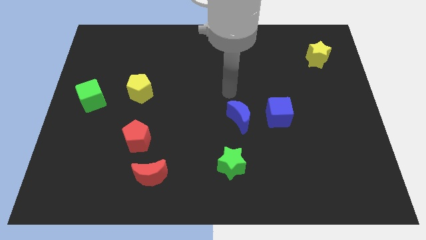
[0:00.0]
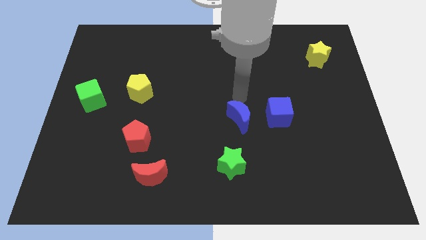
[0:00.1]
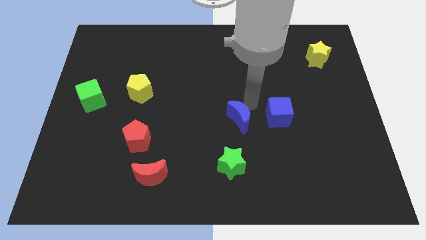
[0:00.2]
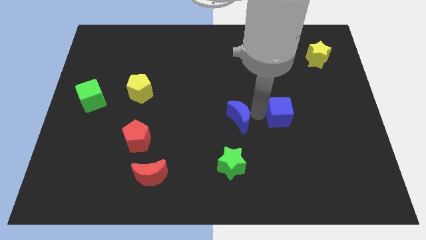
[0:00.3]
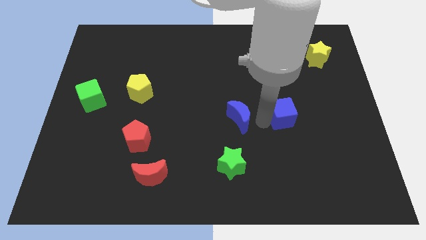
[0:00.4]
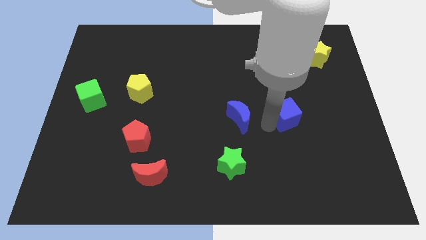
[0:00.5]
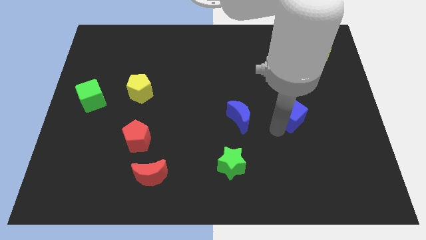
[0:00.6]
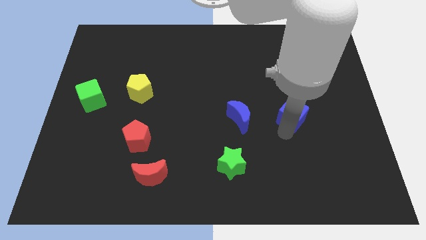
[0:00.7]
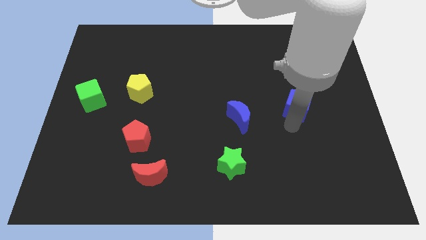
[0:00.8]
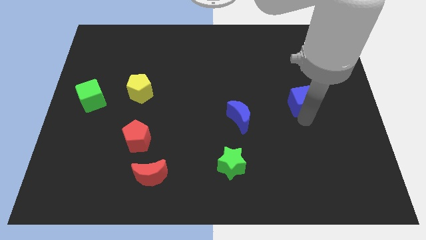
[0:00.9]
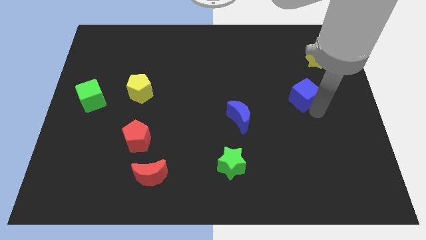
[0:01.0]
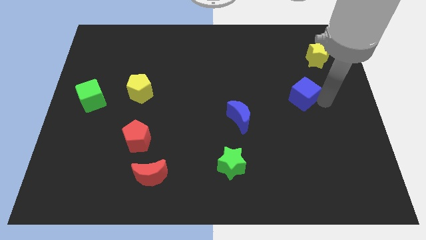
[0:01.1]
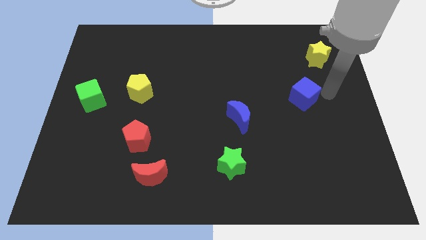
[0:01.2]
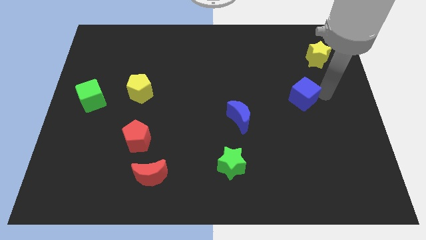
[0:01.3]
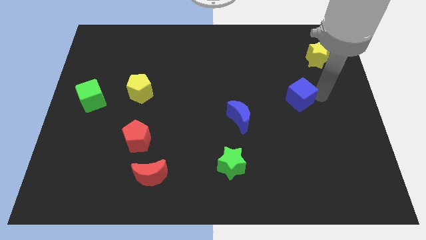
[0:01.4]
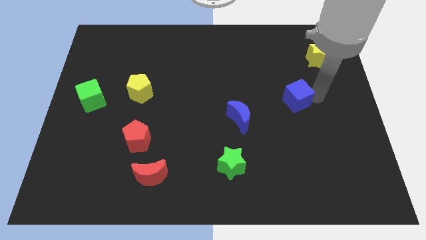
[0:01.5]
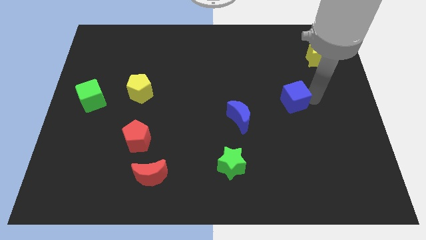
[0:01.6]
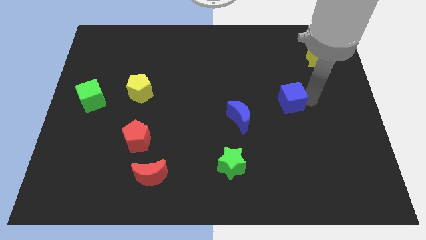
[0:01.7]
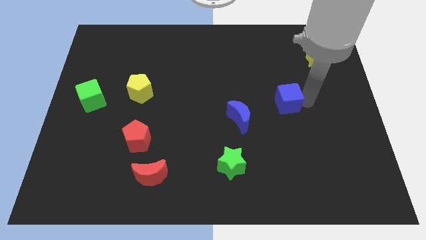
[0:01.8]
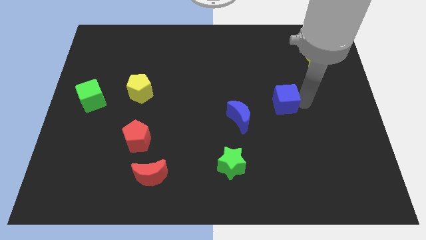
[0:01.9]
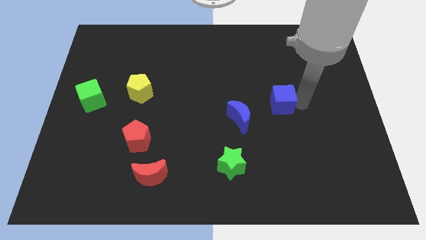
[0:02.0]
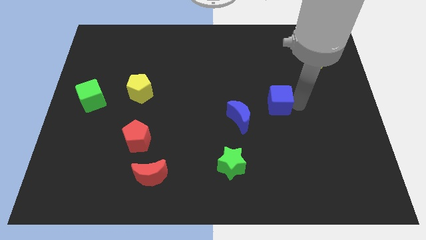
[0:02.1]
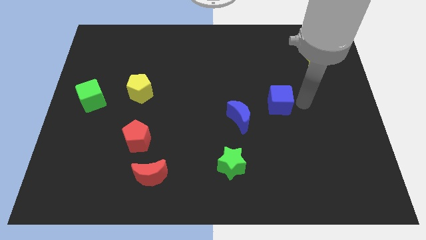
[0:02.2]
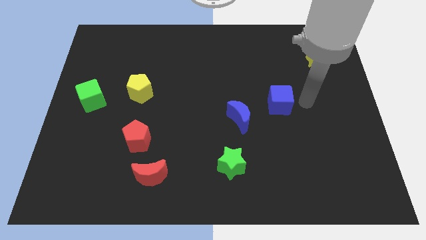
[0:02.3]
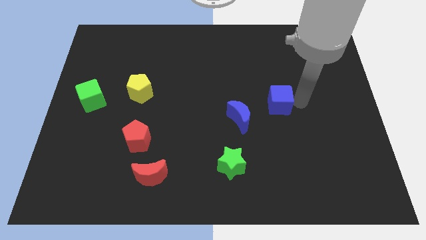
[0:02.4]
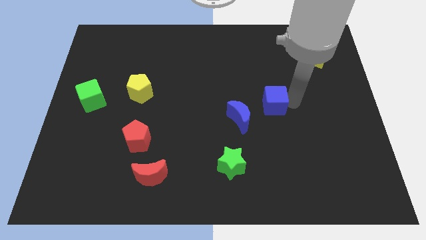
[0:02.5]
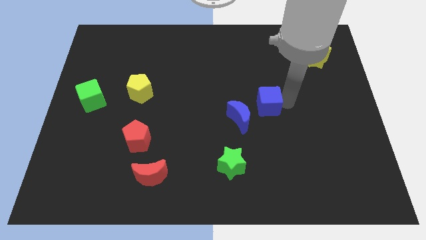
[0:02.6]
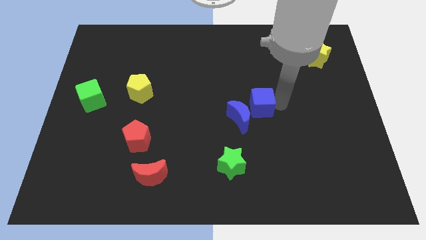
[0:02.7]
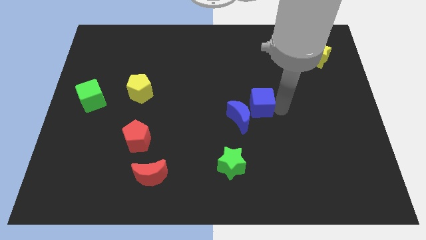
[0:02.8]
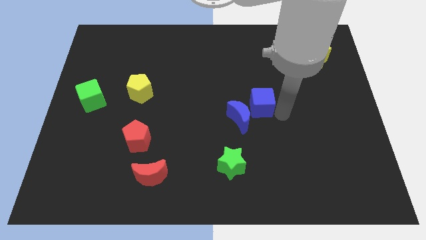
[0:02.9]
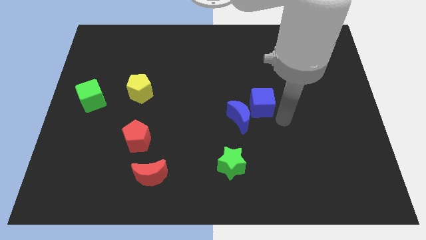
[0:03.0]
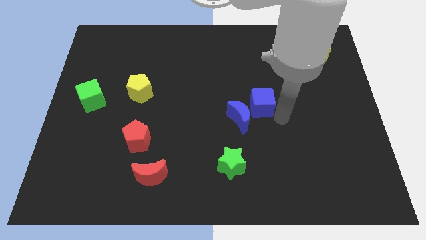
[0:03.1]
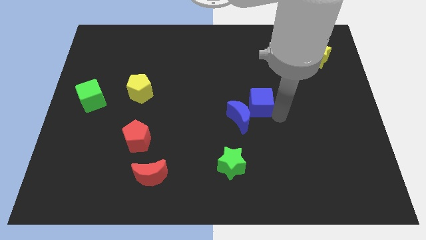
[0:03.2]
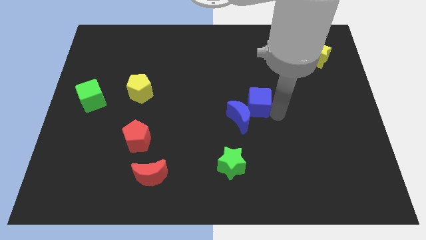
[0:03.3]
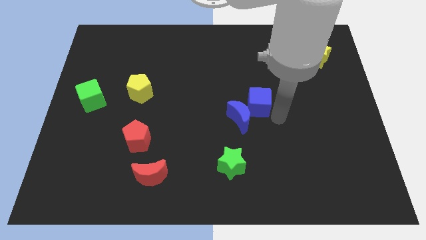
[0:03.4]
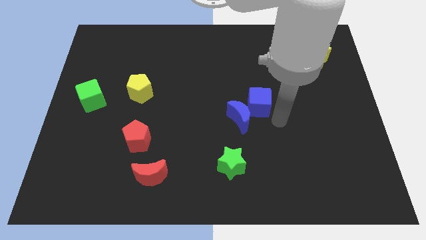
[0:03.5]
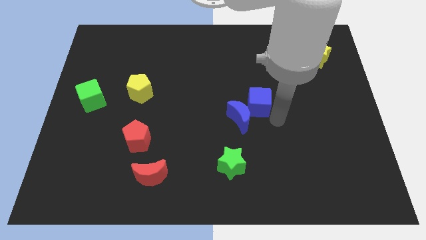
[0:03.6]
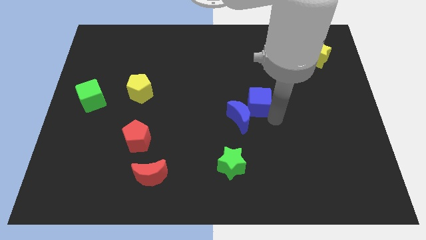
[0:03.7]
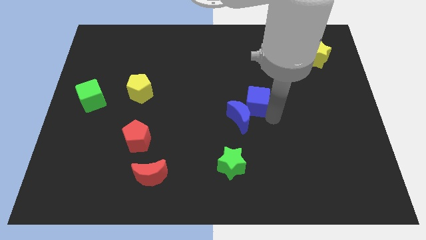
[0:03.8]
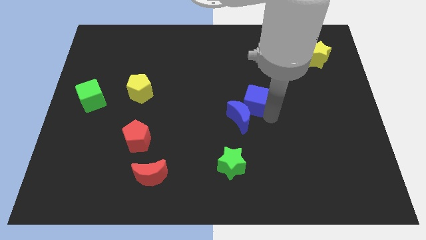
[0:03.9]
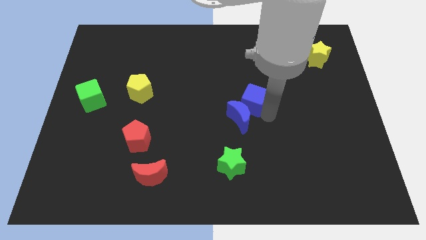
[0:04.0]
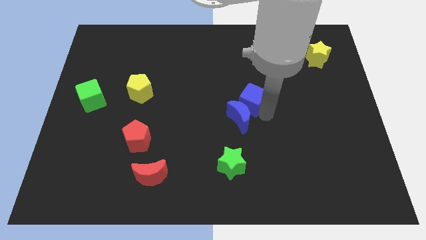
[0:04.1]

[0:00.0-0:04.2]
move the blue cube diagonally up and left slightly

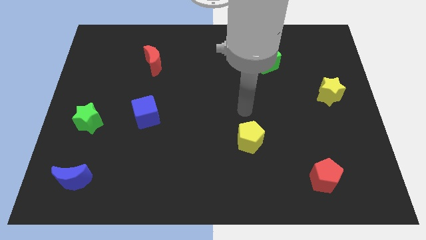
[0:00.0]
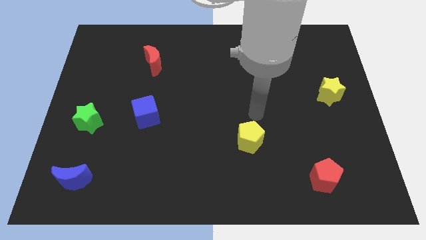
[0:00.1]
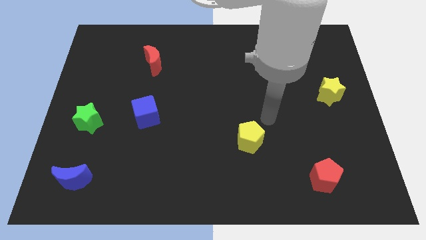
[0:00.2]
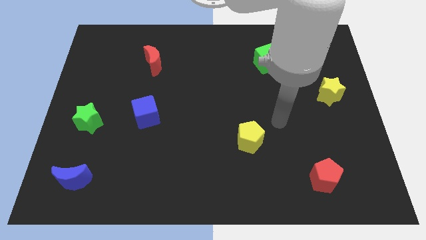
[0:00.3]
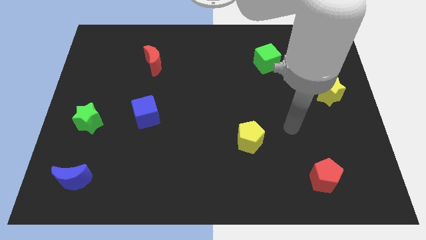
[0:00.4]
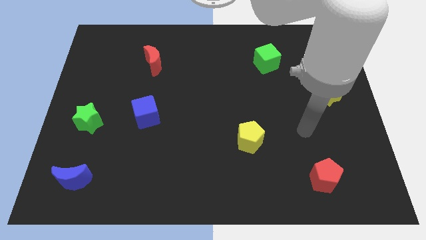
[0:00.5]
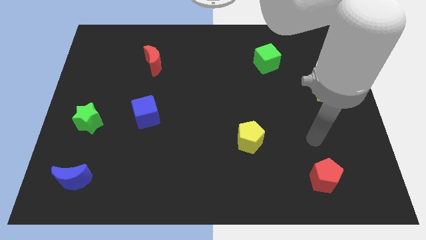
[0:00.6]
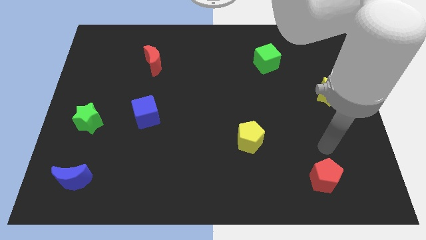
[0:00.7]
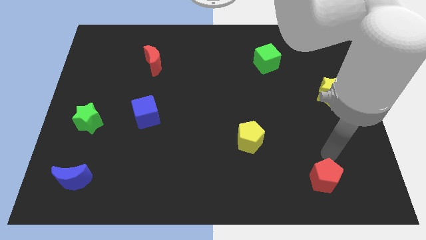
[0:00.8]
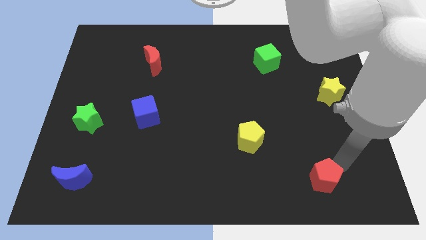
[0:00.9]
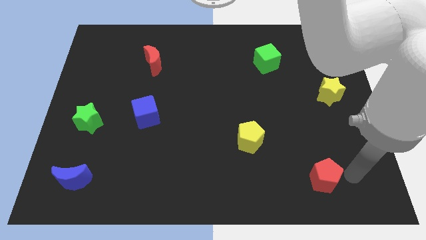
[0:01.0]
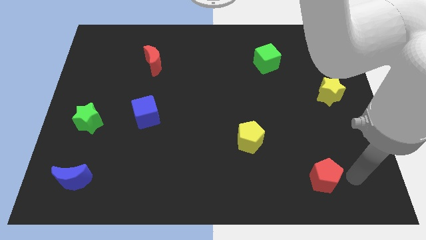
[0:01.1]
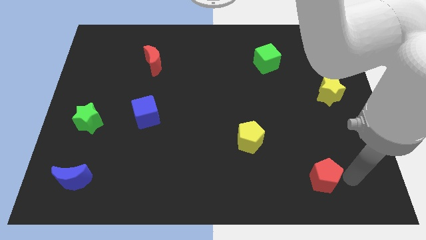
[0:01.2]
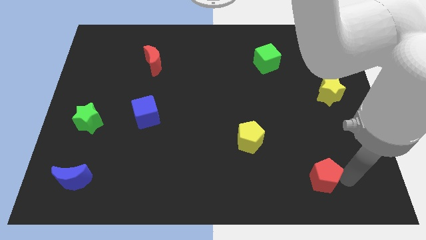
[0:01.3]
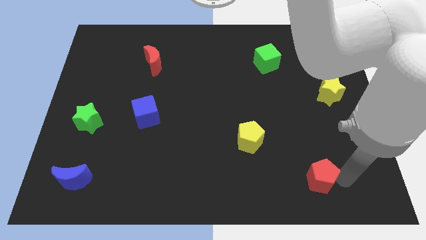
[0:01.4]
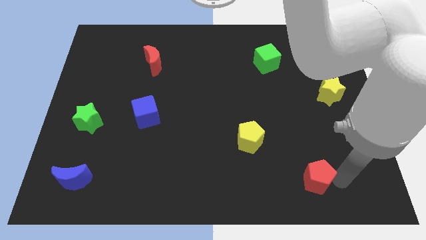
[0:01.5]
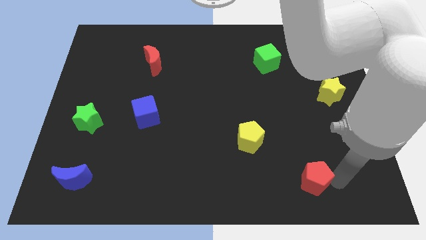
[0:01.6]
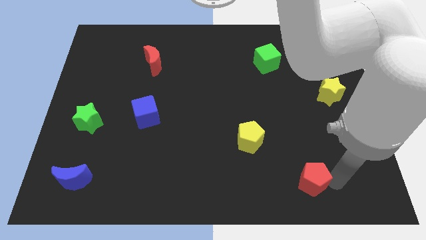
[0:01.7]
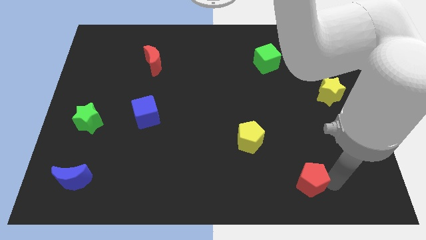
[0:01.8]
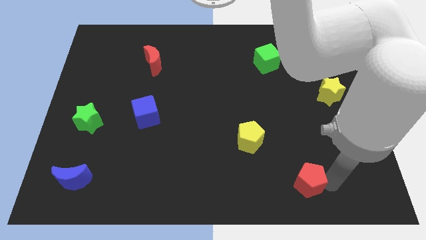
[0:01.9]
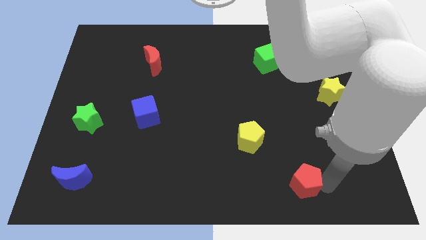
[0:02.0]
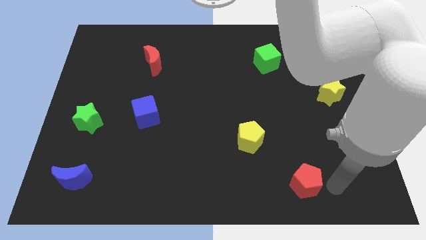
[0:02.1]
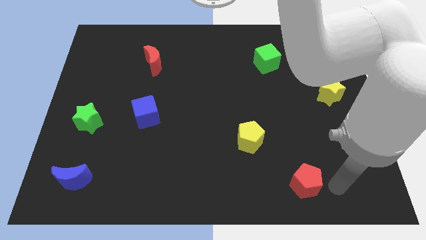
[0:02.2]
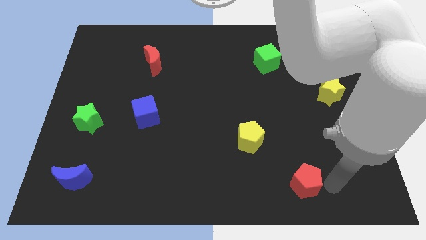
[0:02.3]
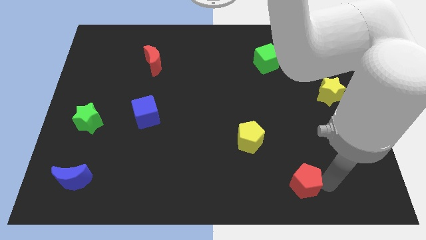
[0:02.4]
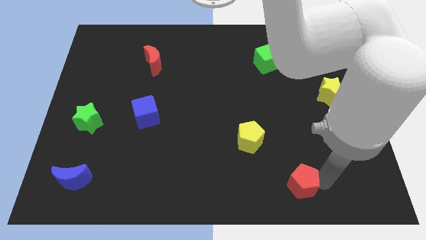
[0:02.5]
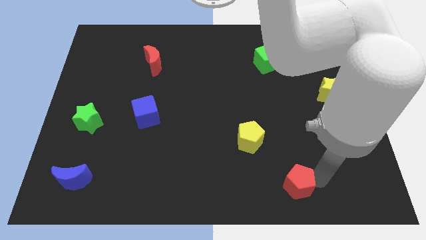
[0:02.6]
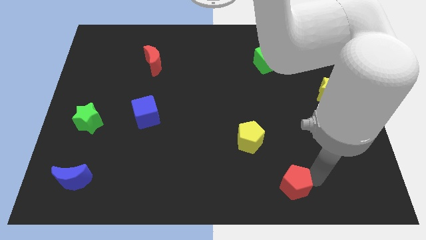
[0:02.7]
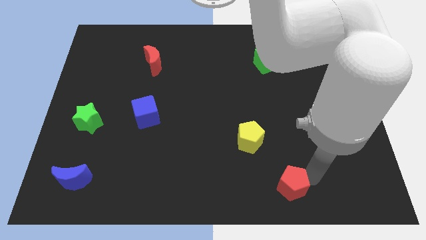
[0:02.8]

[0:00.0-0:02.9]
slide the red pentagon left somewhat

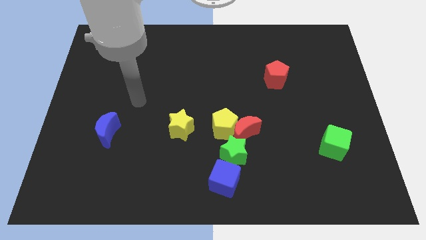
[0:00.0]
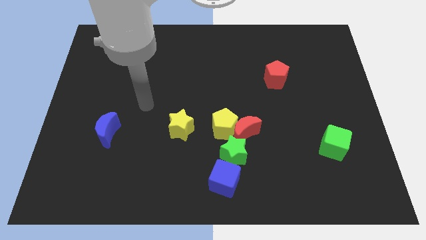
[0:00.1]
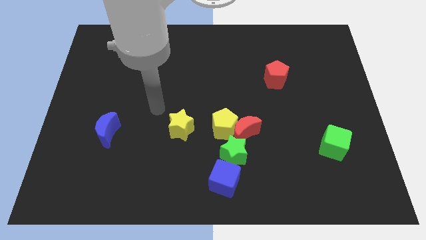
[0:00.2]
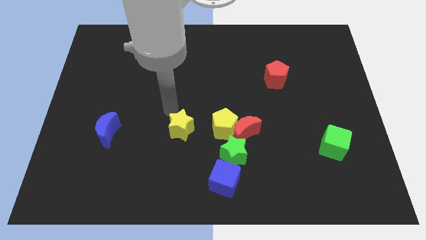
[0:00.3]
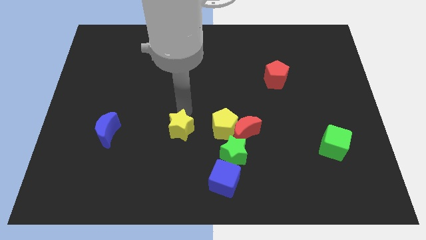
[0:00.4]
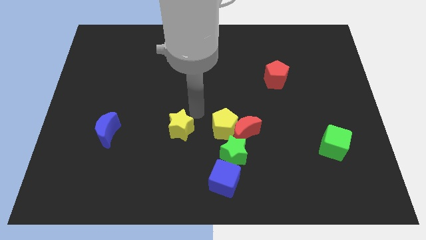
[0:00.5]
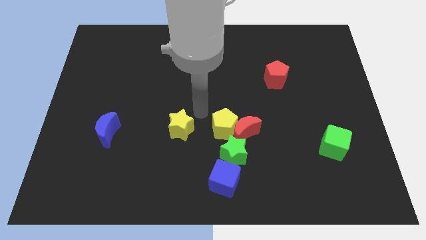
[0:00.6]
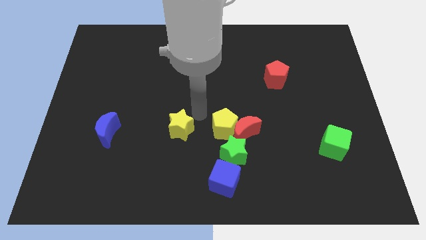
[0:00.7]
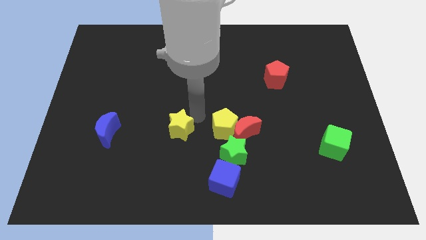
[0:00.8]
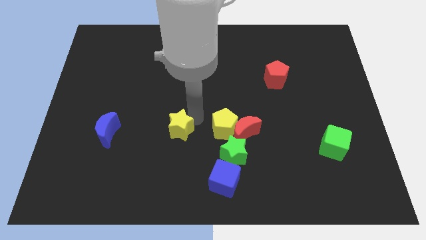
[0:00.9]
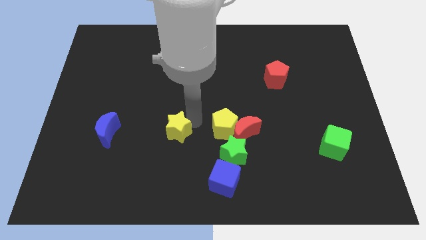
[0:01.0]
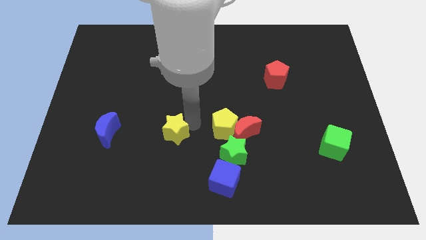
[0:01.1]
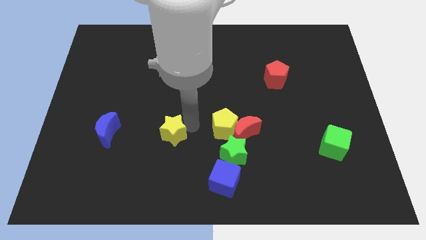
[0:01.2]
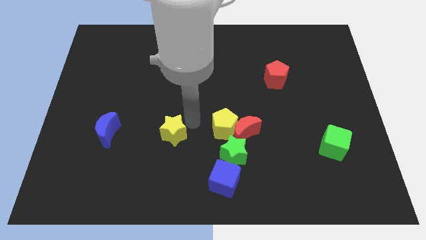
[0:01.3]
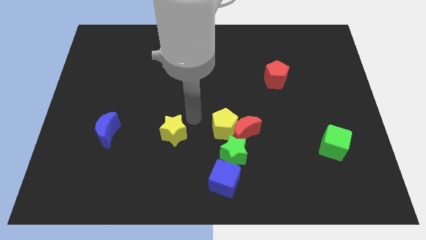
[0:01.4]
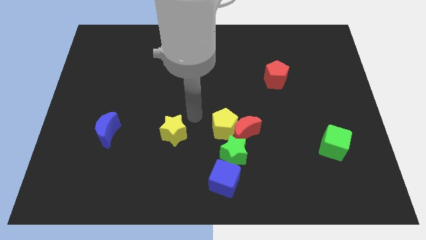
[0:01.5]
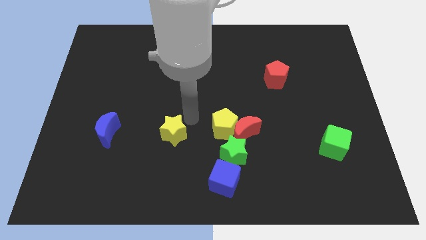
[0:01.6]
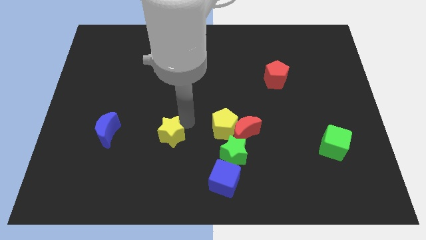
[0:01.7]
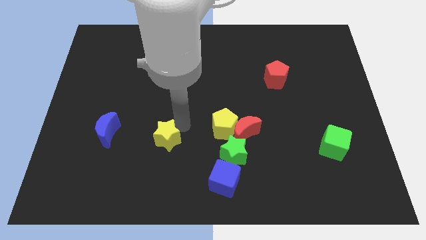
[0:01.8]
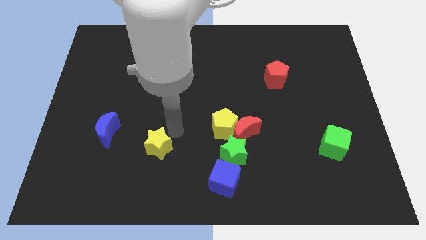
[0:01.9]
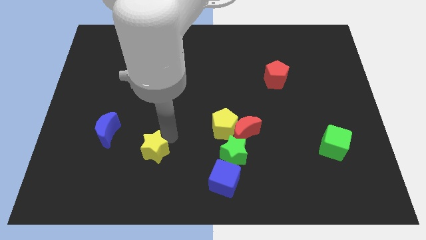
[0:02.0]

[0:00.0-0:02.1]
push the yellow star a little downwards and then left
